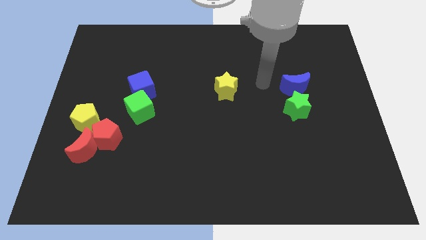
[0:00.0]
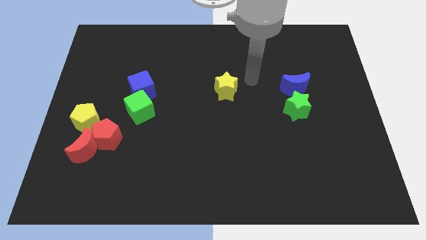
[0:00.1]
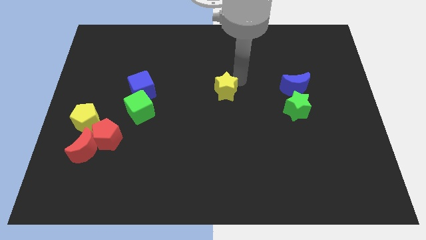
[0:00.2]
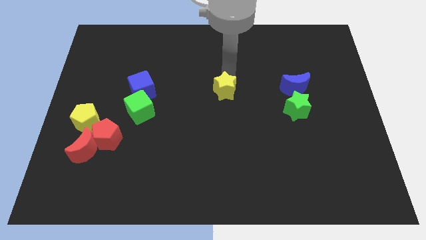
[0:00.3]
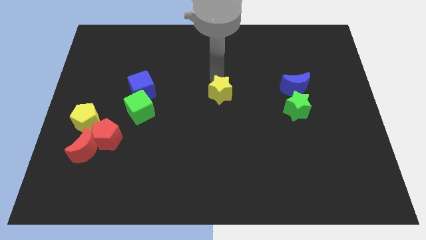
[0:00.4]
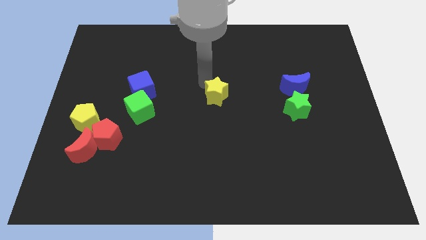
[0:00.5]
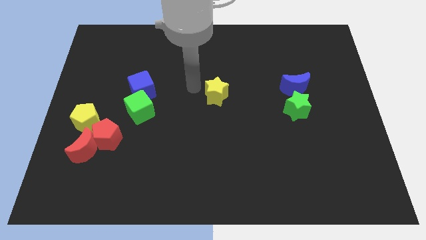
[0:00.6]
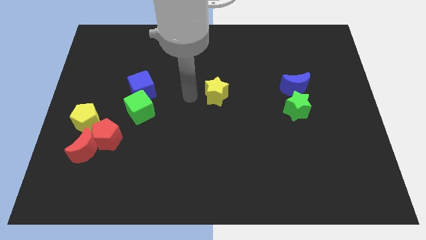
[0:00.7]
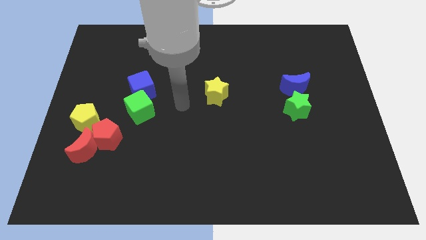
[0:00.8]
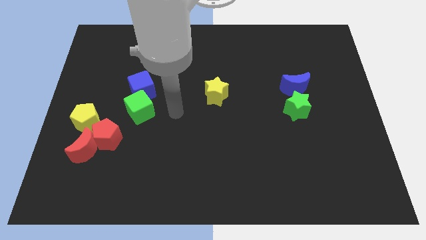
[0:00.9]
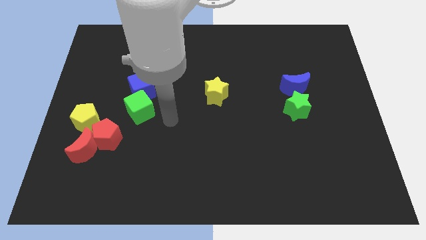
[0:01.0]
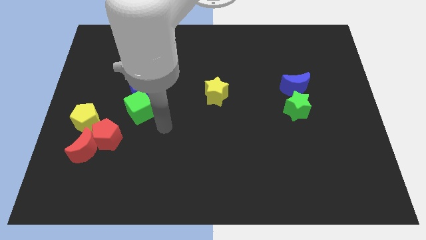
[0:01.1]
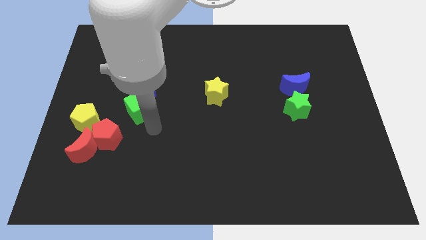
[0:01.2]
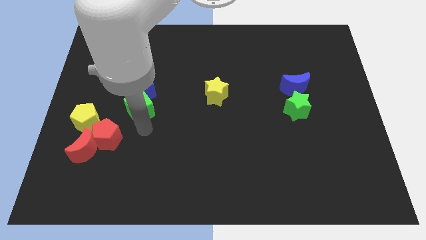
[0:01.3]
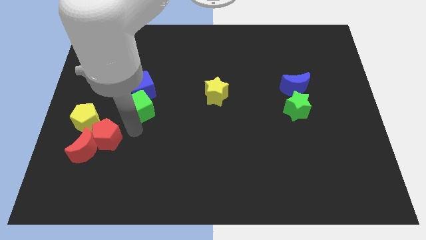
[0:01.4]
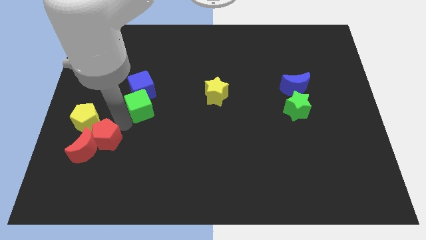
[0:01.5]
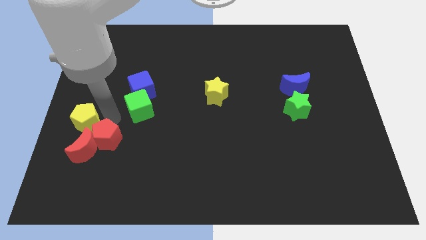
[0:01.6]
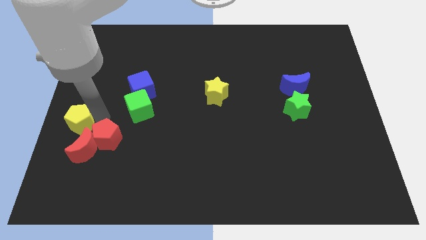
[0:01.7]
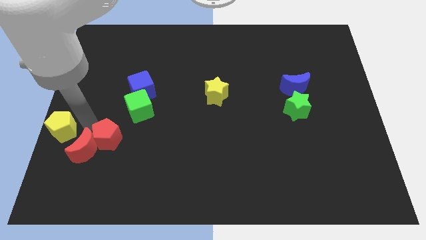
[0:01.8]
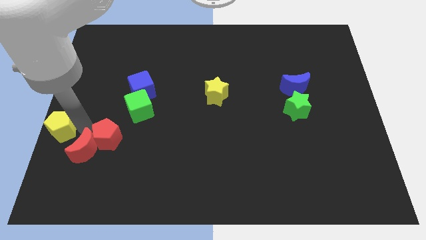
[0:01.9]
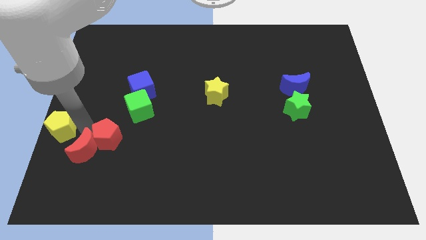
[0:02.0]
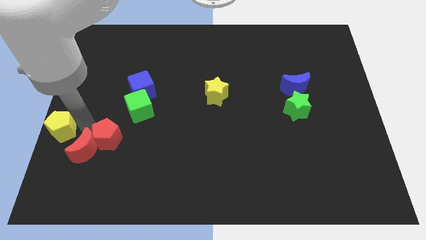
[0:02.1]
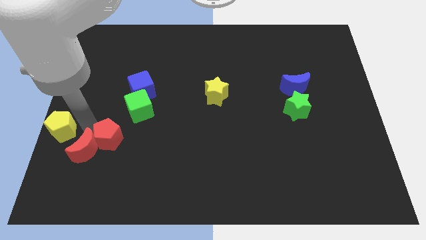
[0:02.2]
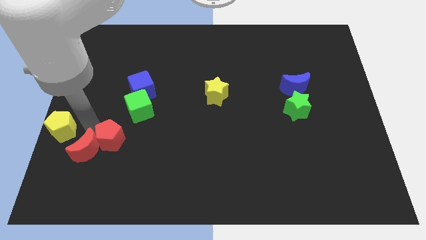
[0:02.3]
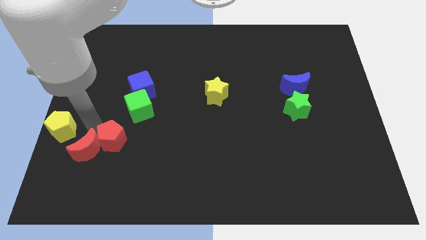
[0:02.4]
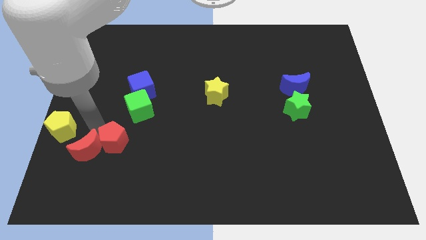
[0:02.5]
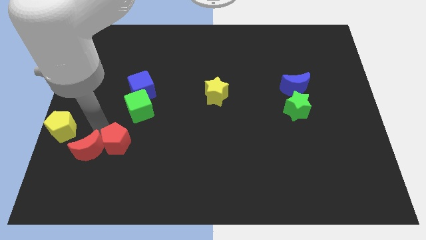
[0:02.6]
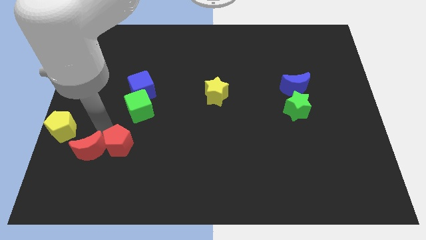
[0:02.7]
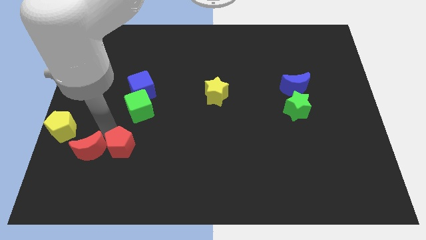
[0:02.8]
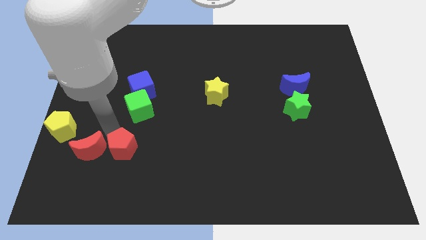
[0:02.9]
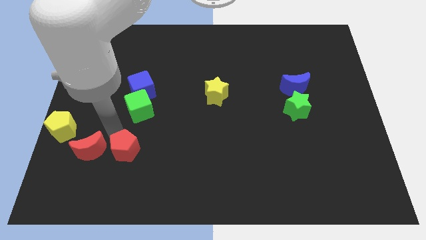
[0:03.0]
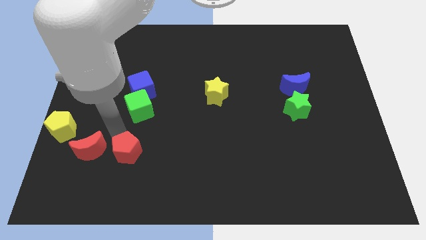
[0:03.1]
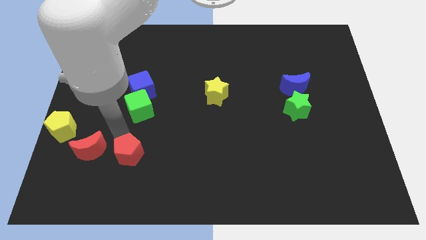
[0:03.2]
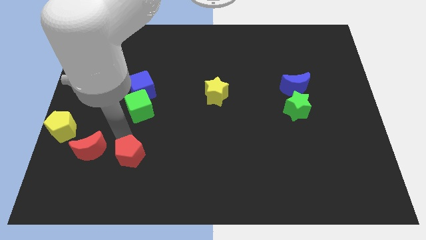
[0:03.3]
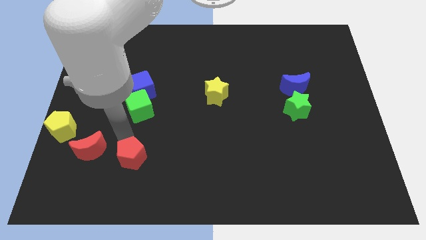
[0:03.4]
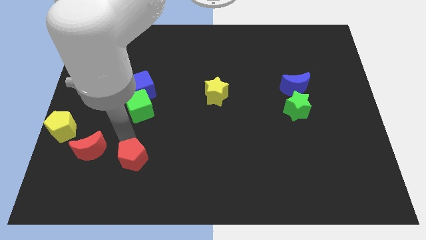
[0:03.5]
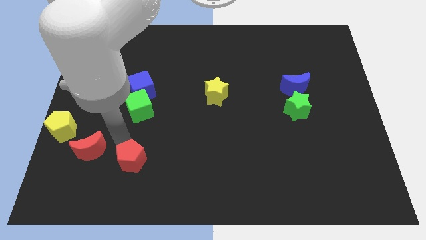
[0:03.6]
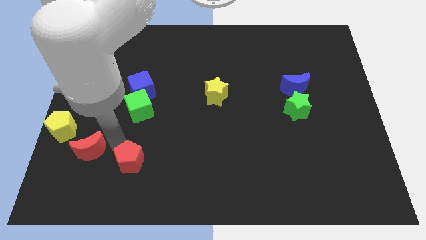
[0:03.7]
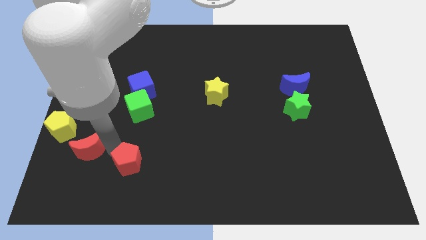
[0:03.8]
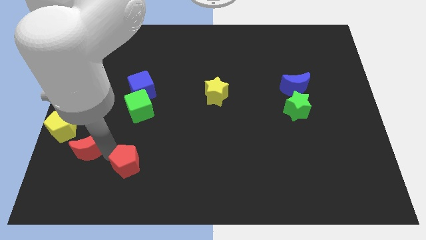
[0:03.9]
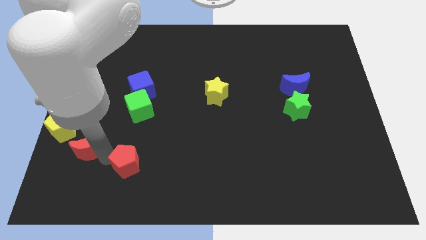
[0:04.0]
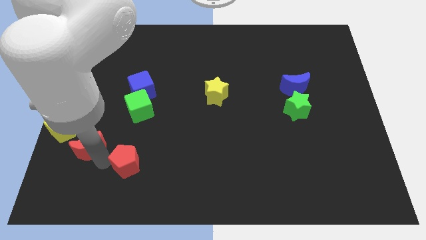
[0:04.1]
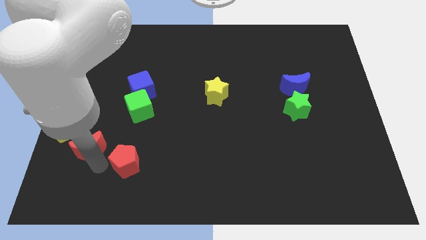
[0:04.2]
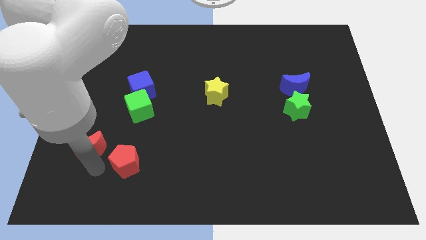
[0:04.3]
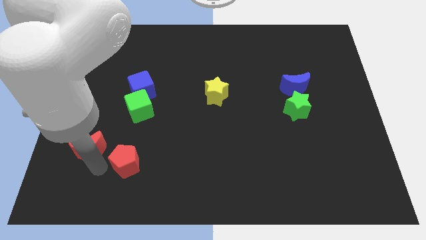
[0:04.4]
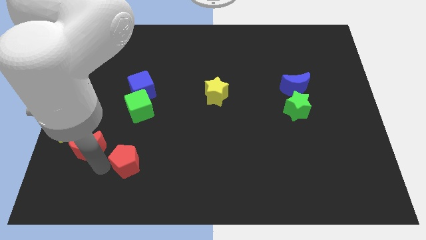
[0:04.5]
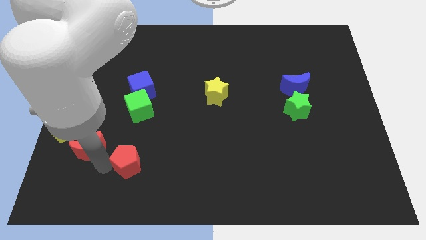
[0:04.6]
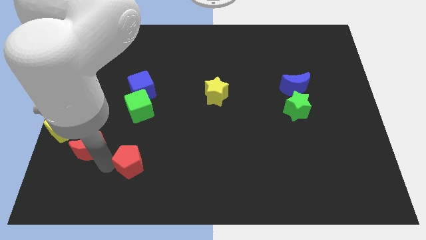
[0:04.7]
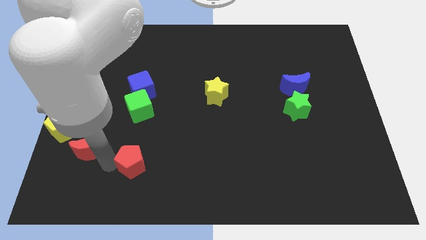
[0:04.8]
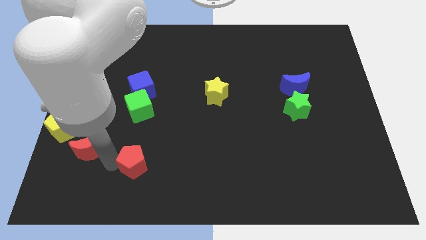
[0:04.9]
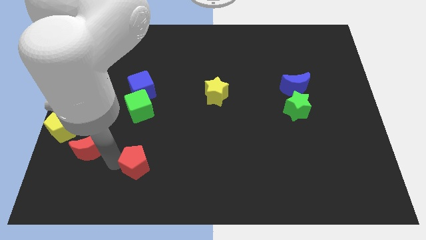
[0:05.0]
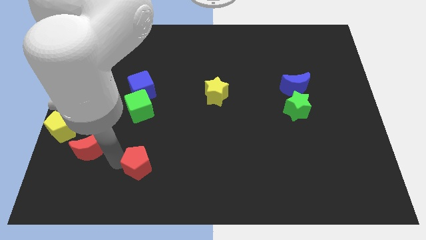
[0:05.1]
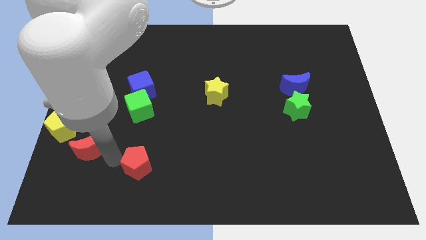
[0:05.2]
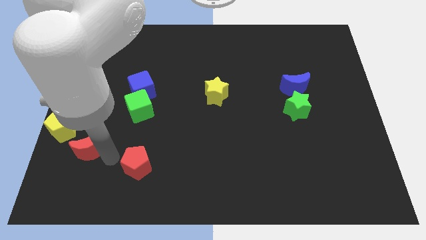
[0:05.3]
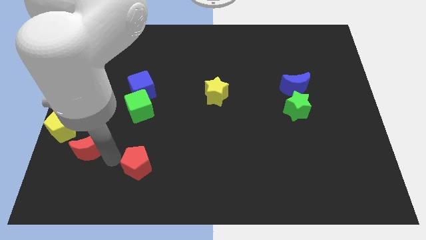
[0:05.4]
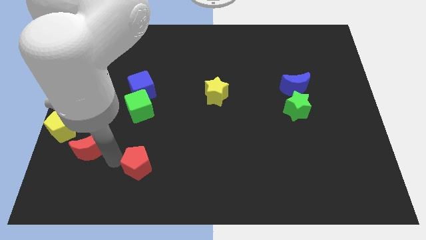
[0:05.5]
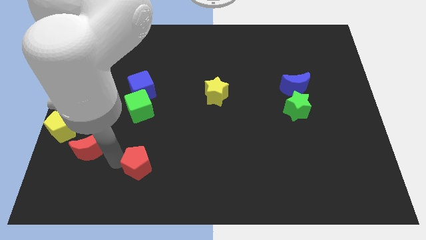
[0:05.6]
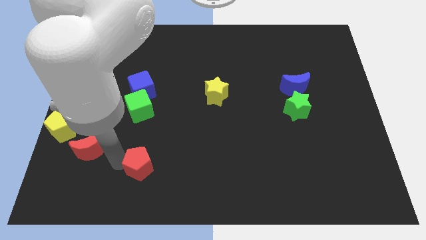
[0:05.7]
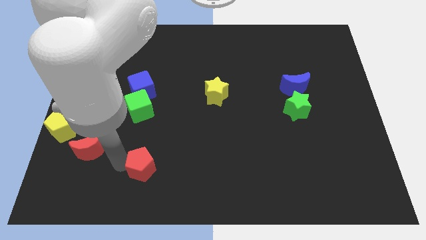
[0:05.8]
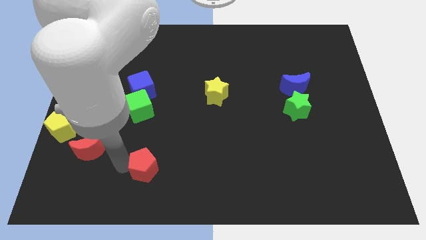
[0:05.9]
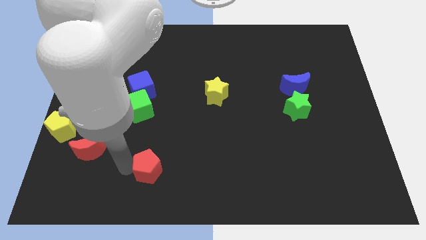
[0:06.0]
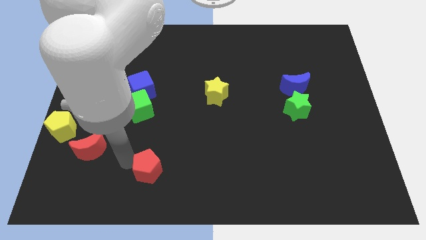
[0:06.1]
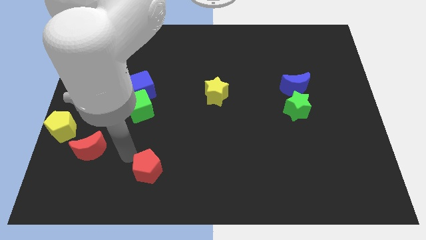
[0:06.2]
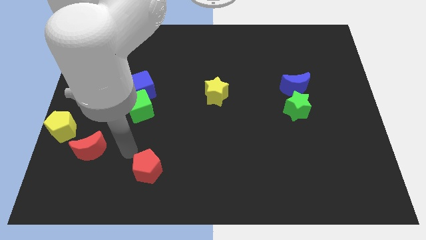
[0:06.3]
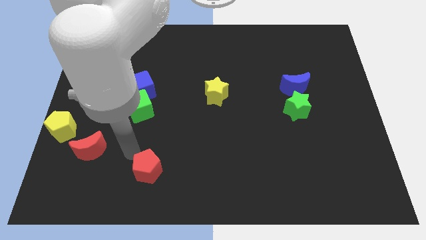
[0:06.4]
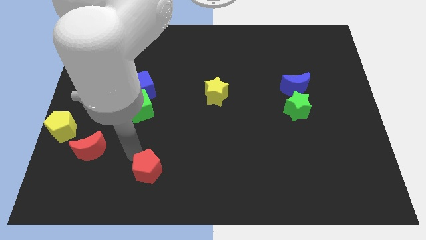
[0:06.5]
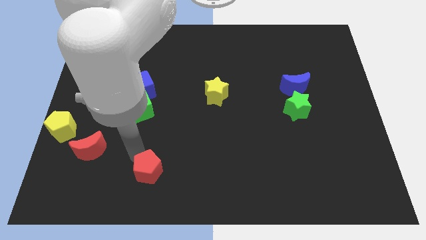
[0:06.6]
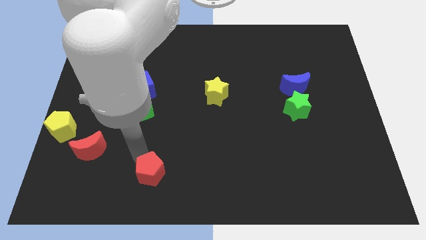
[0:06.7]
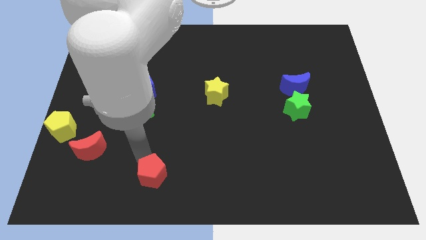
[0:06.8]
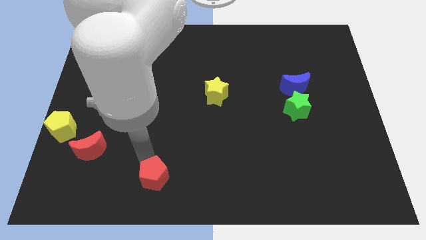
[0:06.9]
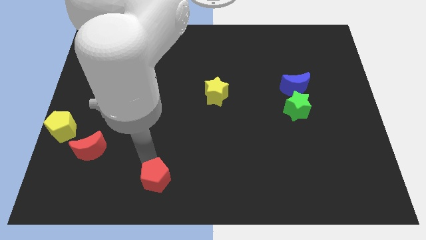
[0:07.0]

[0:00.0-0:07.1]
move the red pentagon to the bottom
